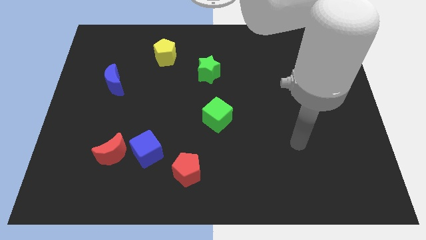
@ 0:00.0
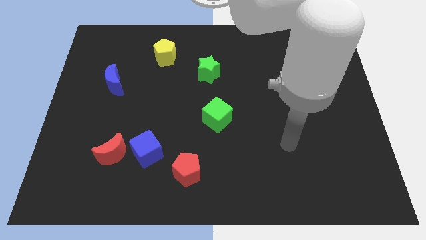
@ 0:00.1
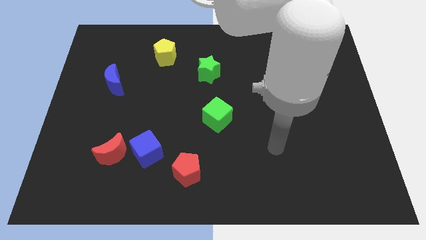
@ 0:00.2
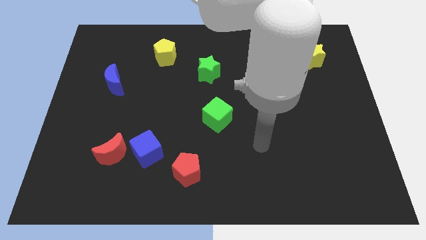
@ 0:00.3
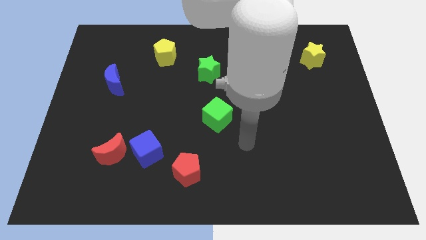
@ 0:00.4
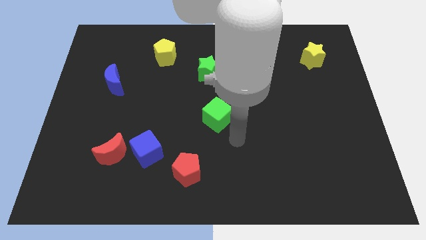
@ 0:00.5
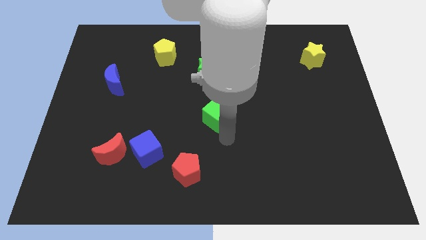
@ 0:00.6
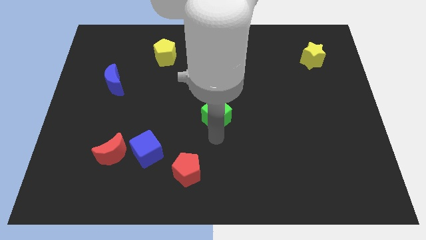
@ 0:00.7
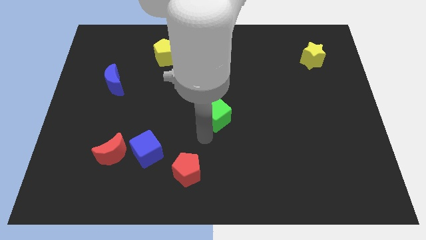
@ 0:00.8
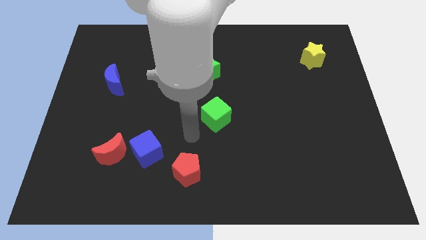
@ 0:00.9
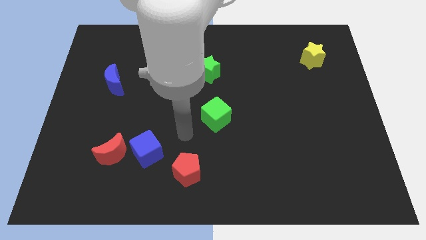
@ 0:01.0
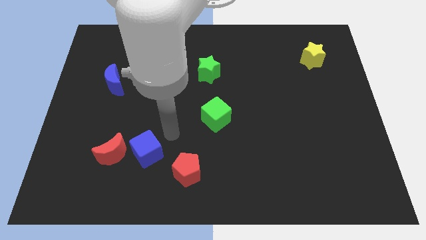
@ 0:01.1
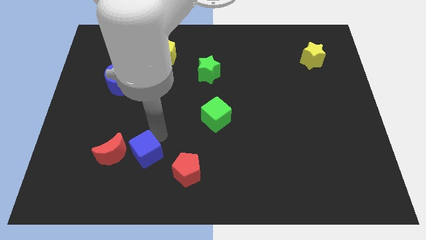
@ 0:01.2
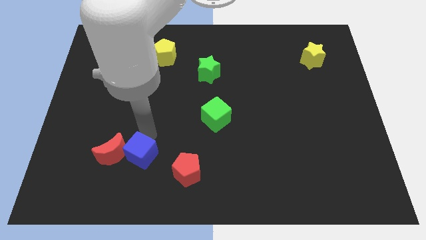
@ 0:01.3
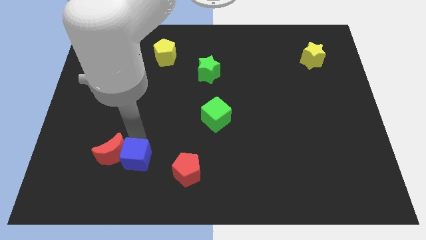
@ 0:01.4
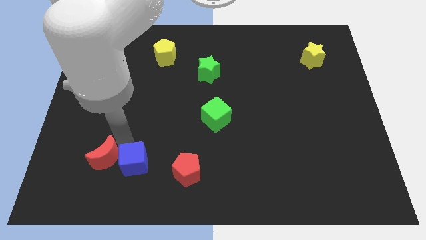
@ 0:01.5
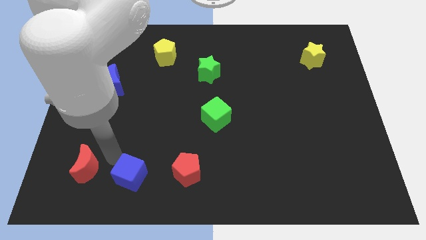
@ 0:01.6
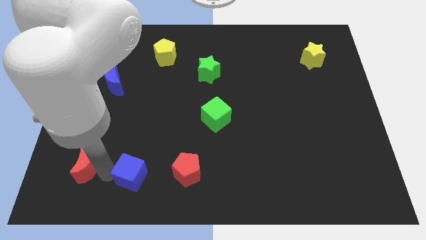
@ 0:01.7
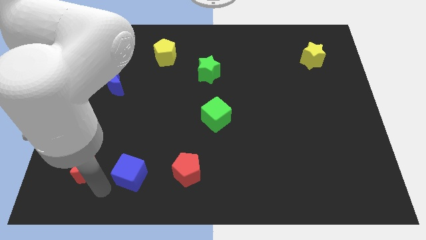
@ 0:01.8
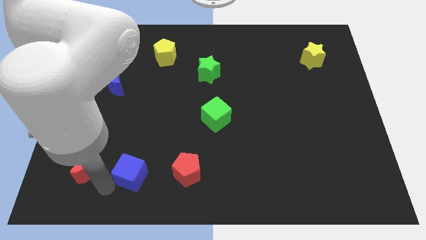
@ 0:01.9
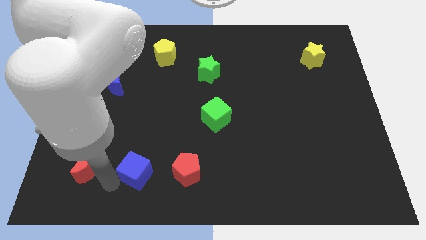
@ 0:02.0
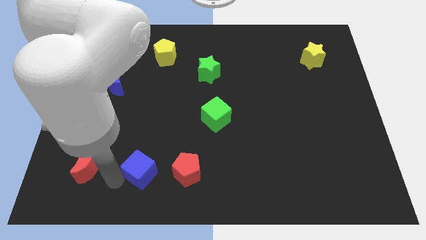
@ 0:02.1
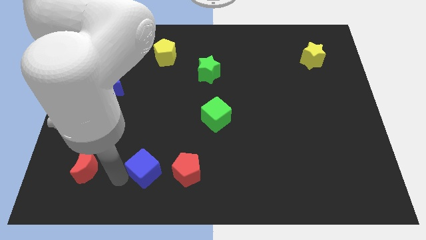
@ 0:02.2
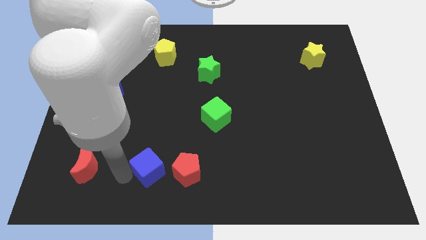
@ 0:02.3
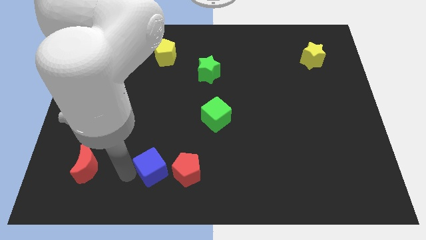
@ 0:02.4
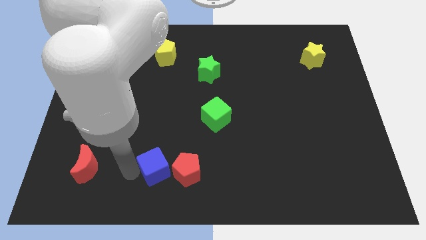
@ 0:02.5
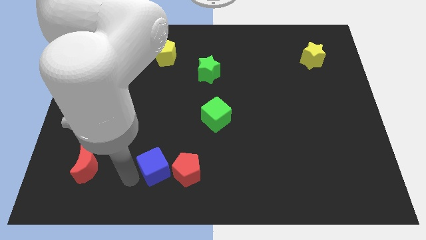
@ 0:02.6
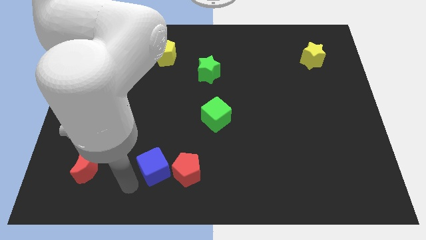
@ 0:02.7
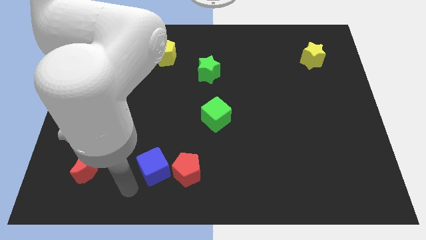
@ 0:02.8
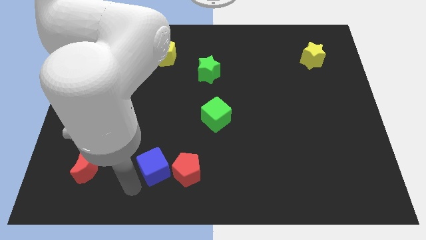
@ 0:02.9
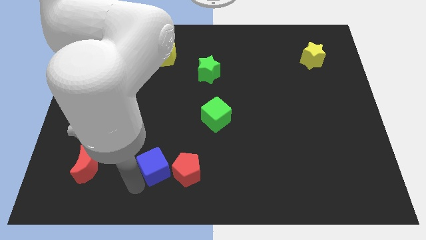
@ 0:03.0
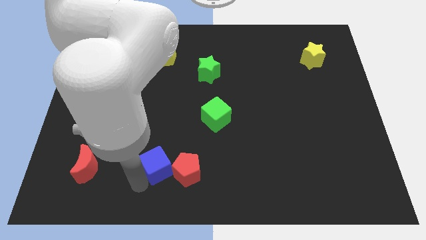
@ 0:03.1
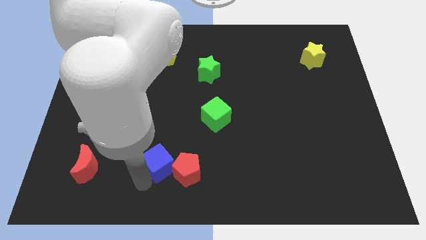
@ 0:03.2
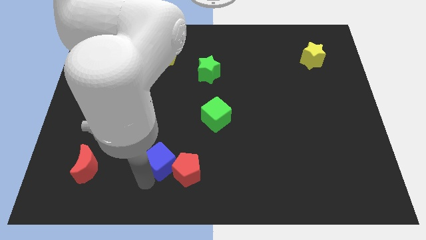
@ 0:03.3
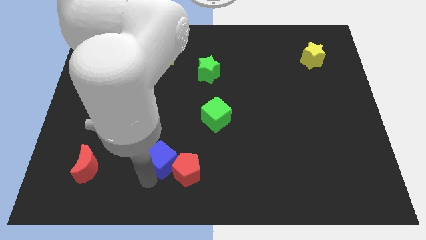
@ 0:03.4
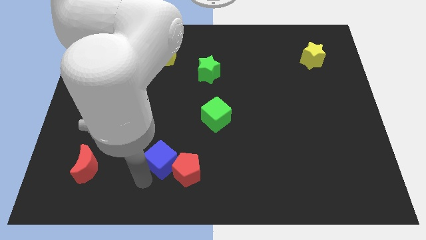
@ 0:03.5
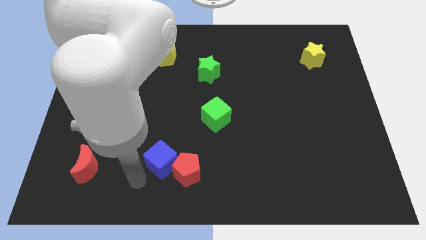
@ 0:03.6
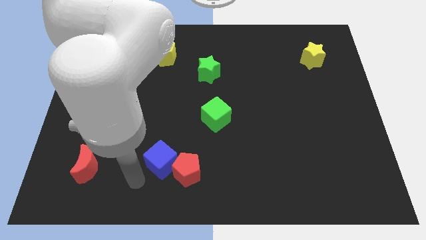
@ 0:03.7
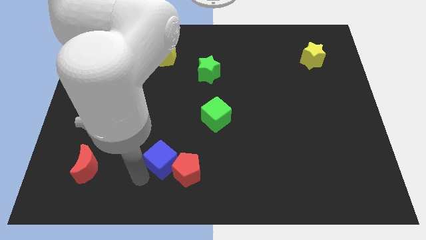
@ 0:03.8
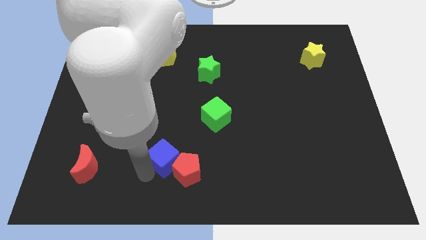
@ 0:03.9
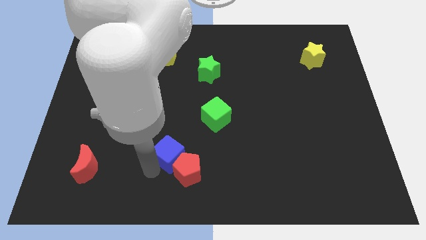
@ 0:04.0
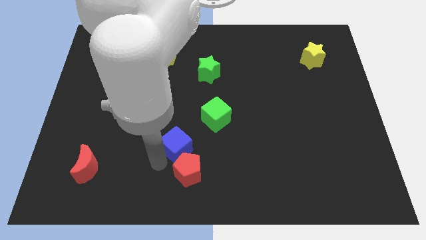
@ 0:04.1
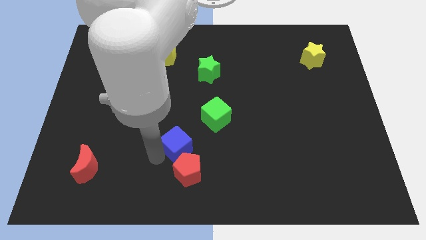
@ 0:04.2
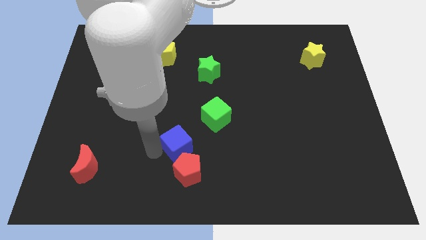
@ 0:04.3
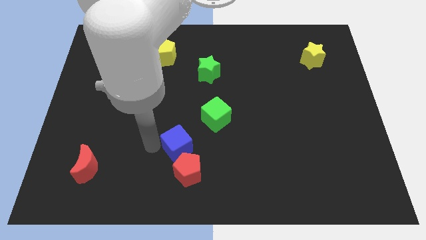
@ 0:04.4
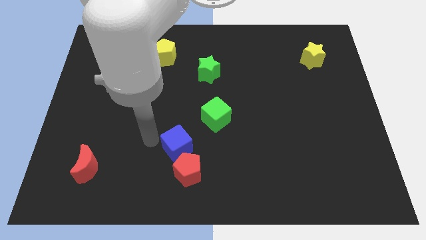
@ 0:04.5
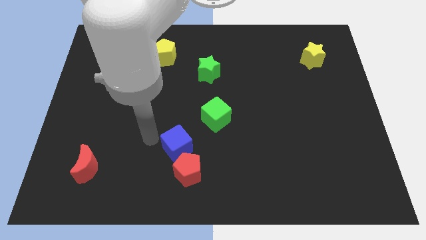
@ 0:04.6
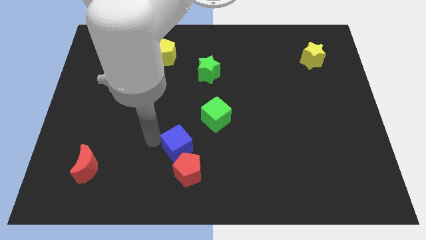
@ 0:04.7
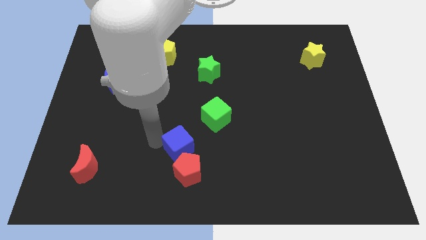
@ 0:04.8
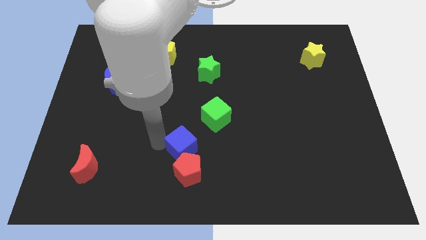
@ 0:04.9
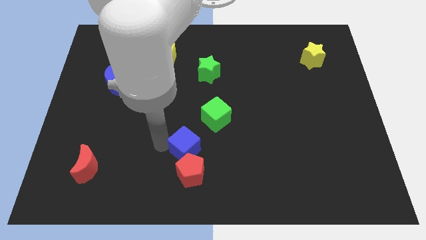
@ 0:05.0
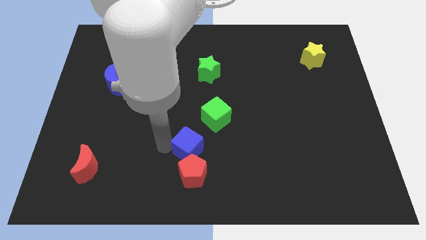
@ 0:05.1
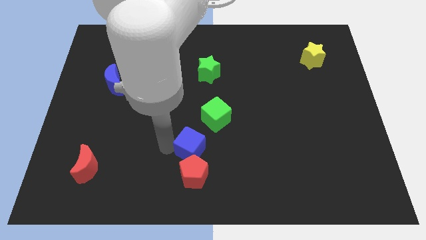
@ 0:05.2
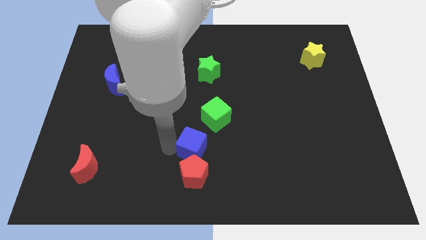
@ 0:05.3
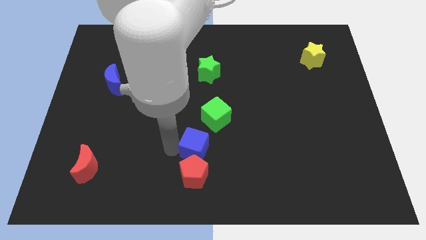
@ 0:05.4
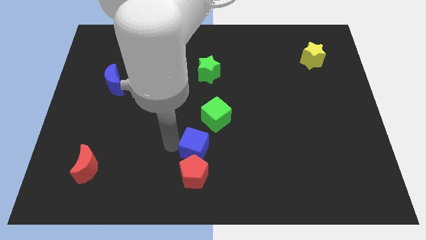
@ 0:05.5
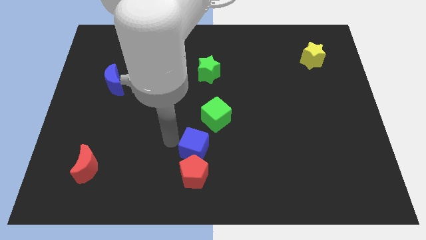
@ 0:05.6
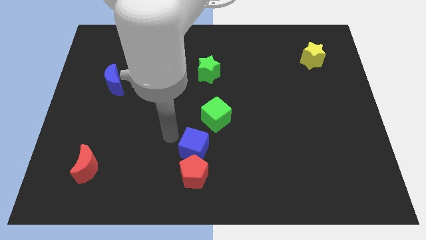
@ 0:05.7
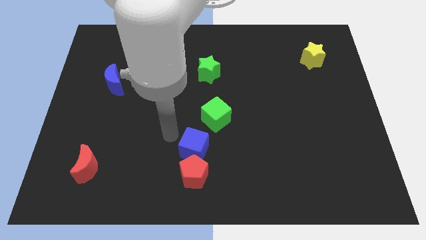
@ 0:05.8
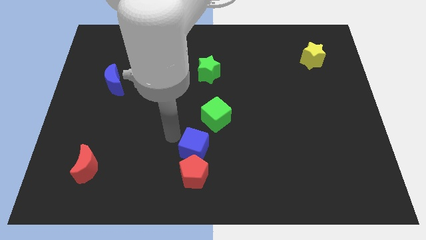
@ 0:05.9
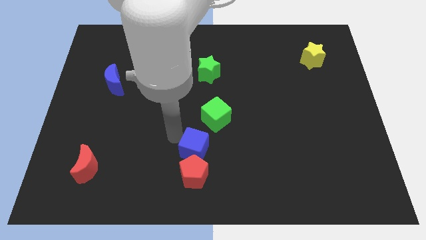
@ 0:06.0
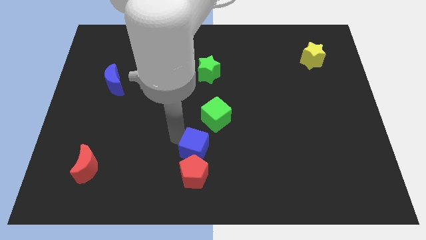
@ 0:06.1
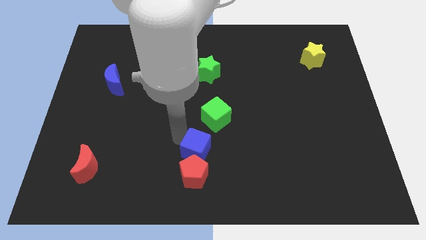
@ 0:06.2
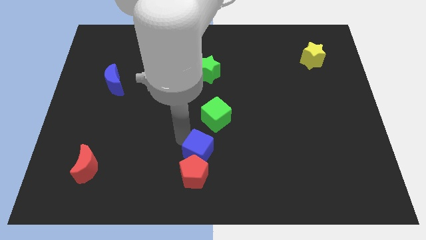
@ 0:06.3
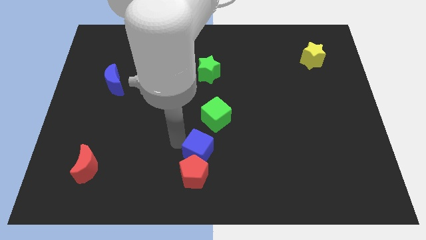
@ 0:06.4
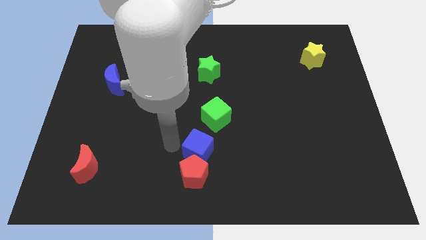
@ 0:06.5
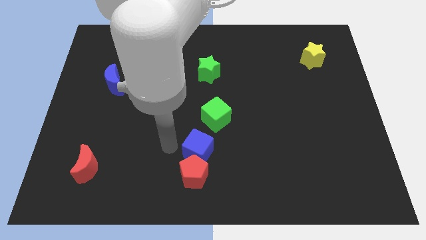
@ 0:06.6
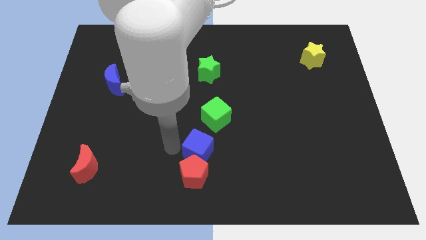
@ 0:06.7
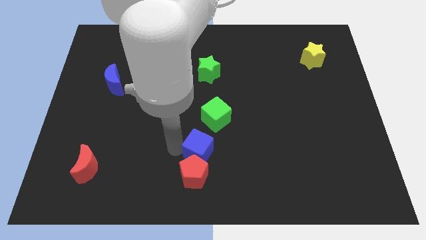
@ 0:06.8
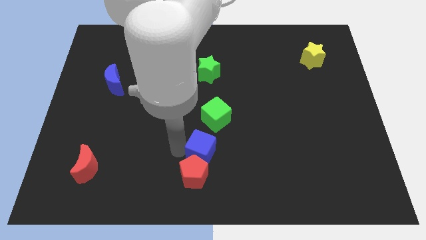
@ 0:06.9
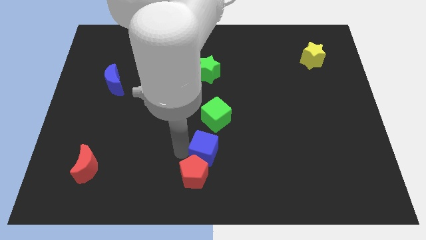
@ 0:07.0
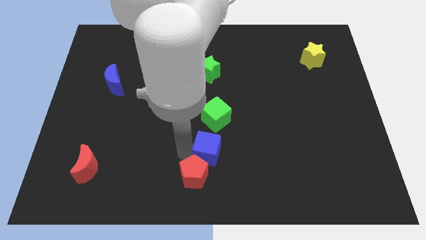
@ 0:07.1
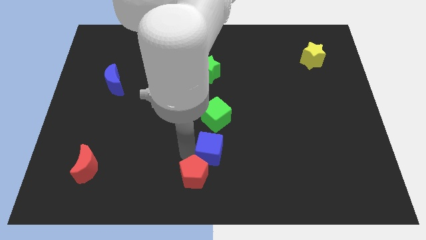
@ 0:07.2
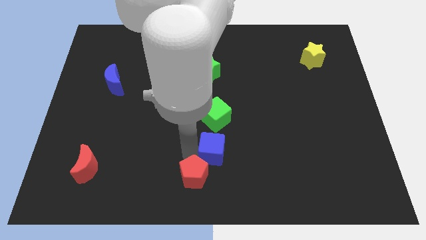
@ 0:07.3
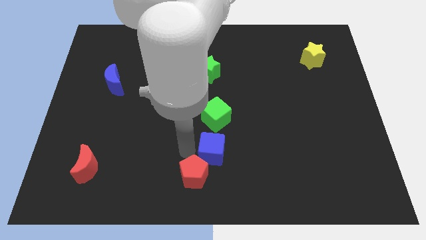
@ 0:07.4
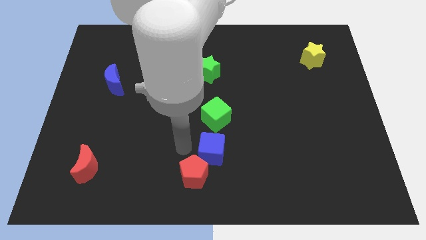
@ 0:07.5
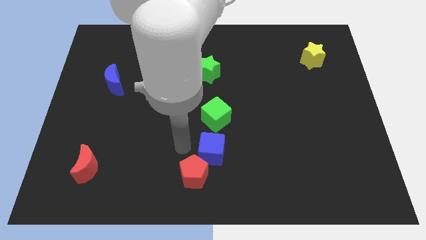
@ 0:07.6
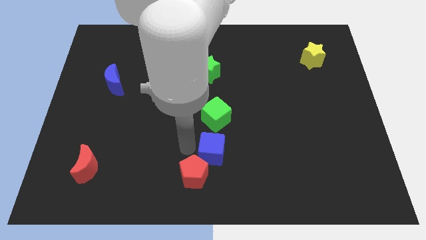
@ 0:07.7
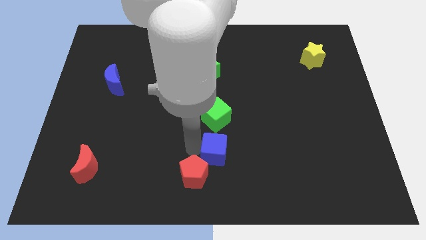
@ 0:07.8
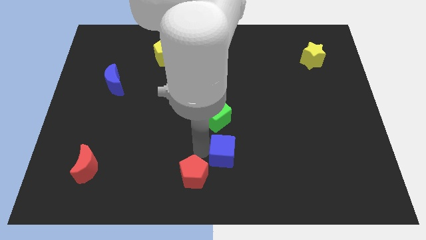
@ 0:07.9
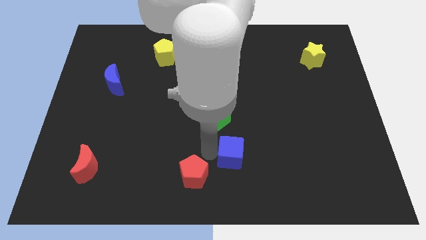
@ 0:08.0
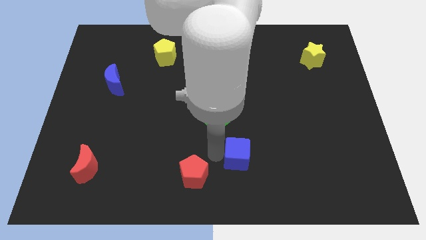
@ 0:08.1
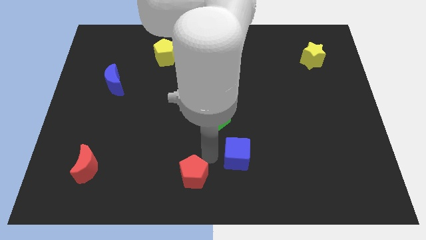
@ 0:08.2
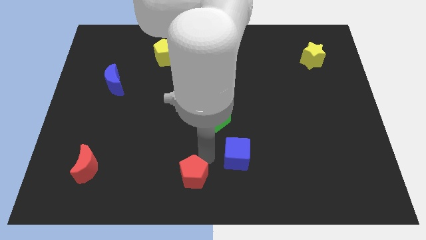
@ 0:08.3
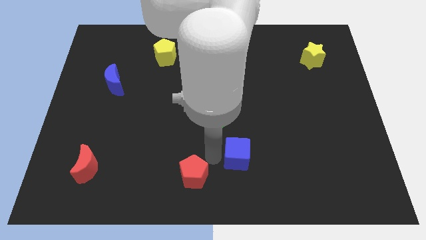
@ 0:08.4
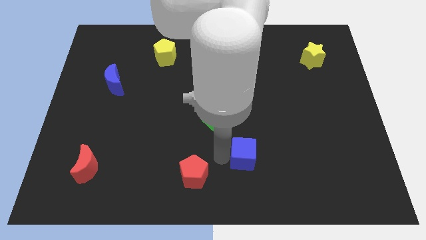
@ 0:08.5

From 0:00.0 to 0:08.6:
move the blue cube to the right
